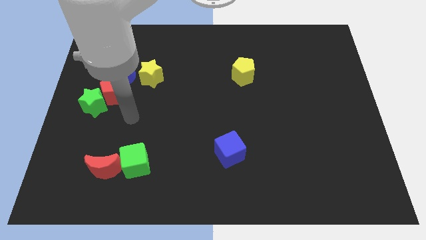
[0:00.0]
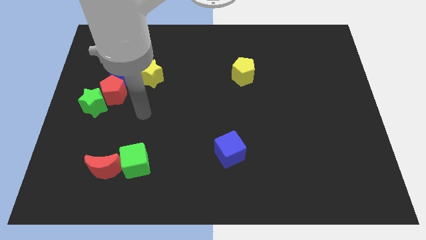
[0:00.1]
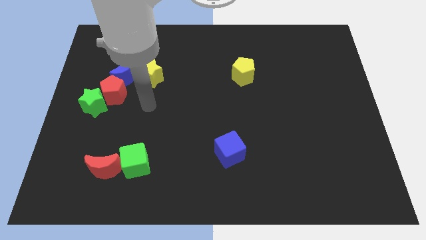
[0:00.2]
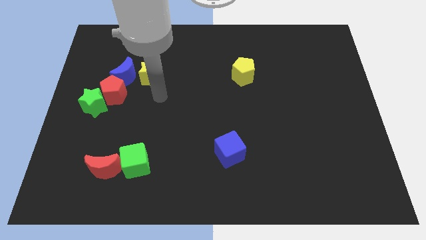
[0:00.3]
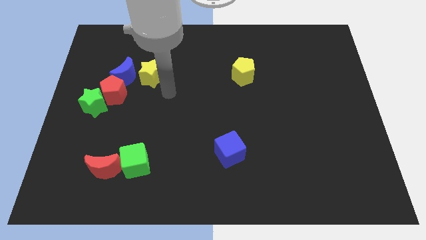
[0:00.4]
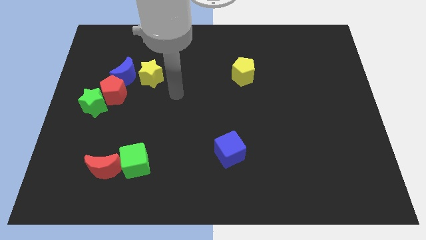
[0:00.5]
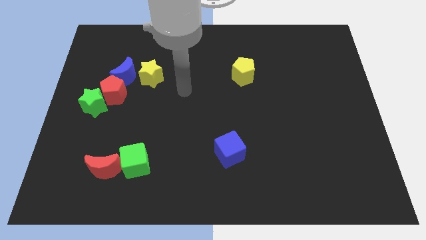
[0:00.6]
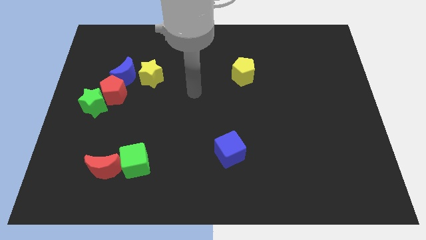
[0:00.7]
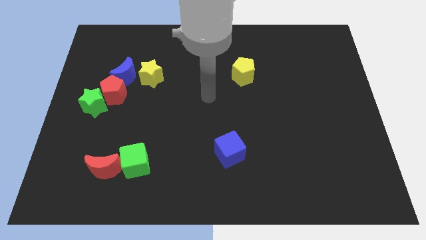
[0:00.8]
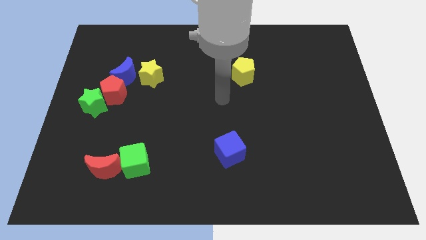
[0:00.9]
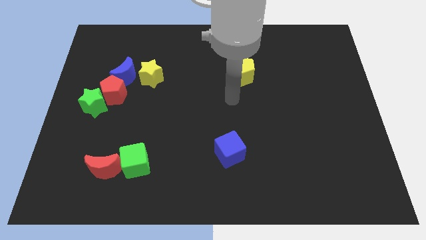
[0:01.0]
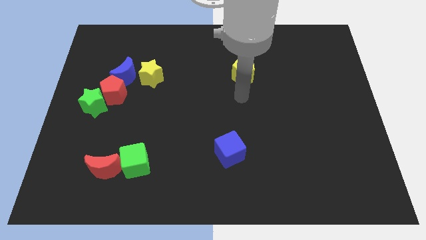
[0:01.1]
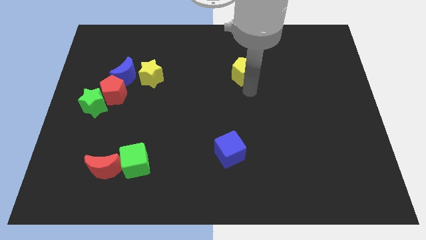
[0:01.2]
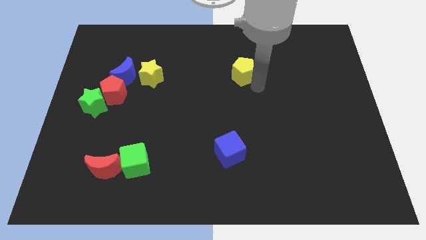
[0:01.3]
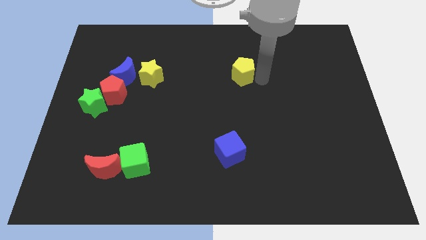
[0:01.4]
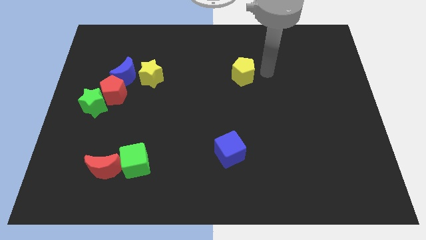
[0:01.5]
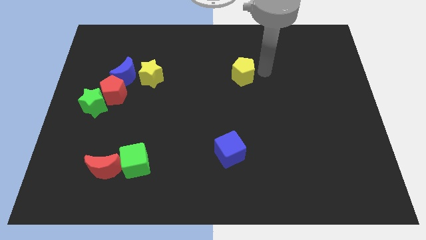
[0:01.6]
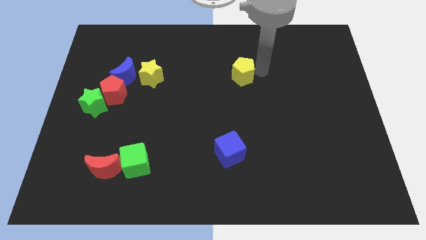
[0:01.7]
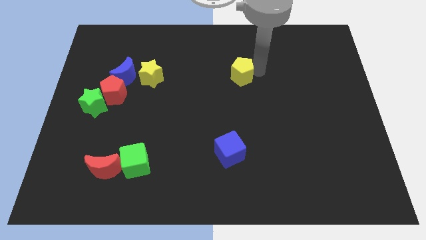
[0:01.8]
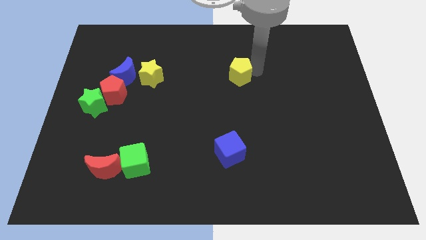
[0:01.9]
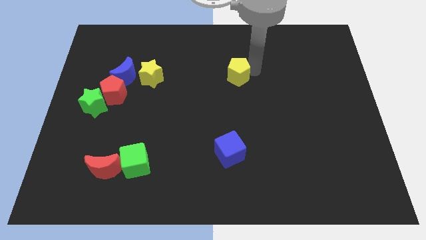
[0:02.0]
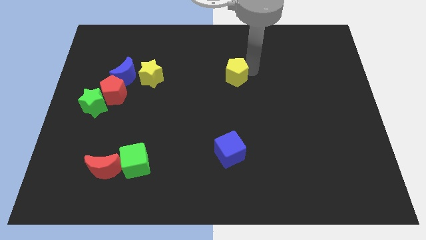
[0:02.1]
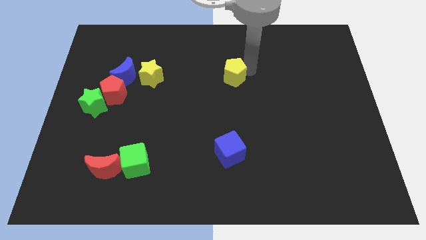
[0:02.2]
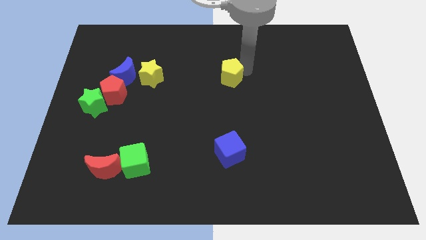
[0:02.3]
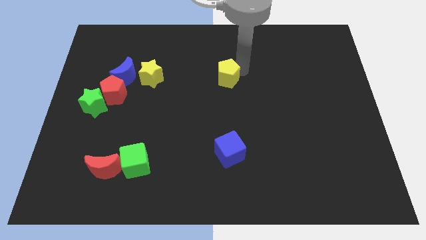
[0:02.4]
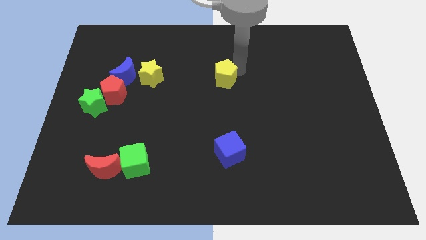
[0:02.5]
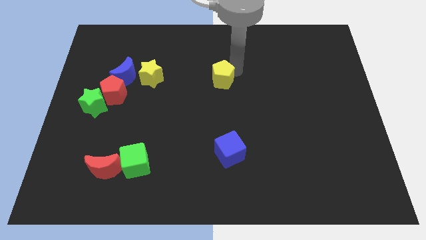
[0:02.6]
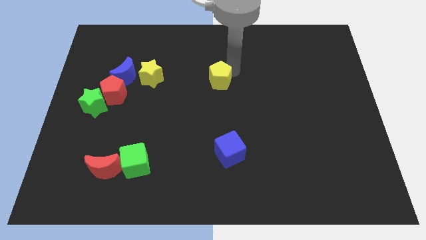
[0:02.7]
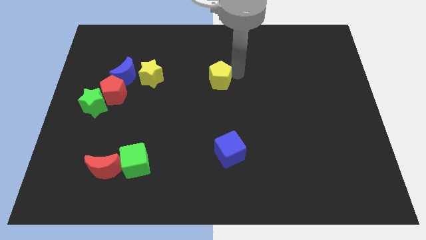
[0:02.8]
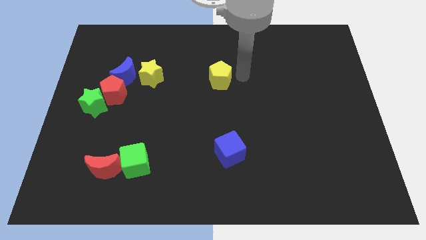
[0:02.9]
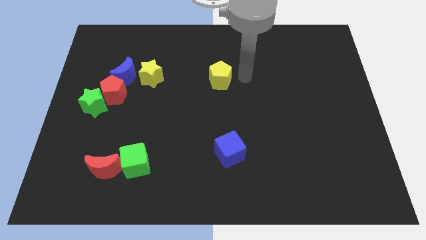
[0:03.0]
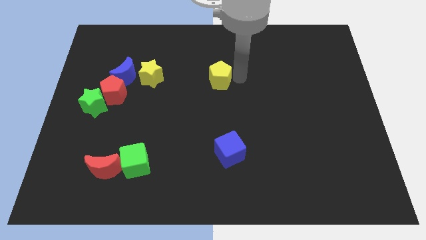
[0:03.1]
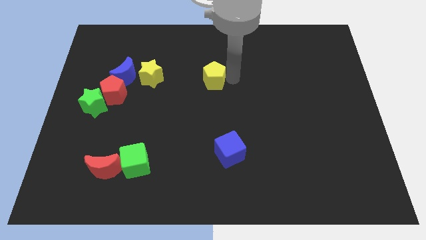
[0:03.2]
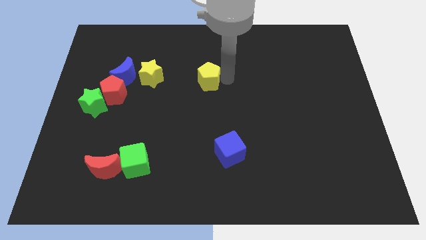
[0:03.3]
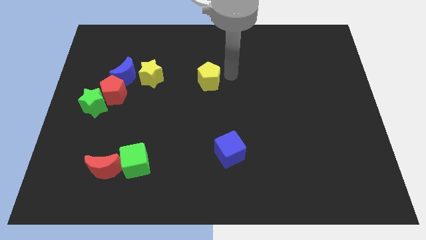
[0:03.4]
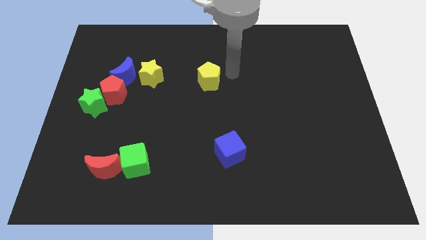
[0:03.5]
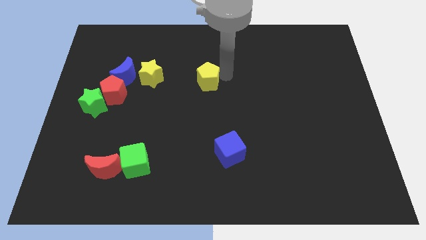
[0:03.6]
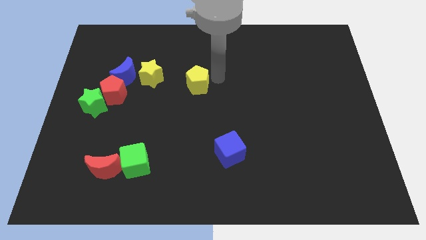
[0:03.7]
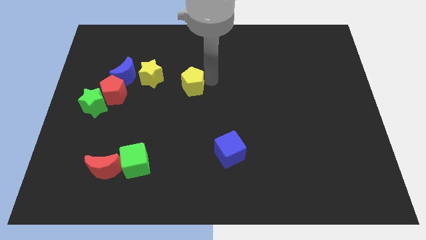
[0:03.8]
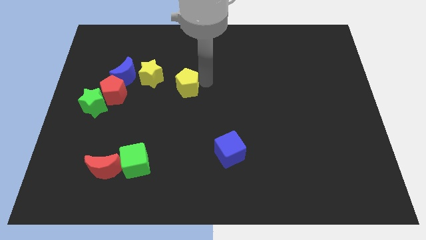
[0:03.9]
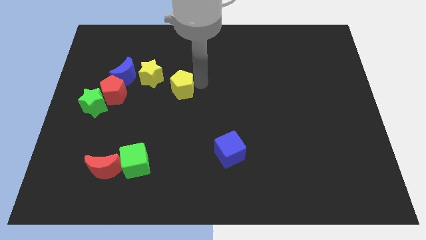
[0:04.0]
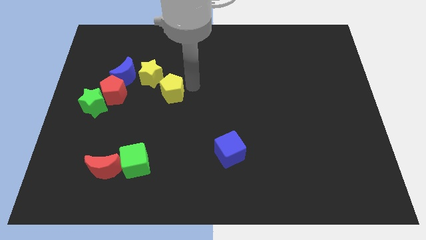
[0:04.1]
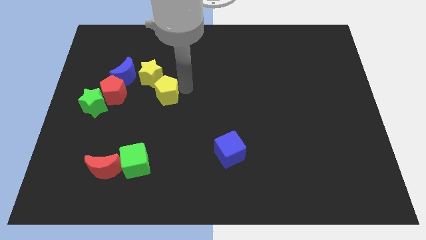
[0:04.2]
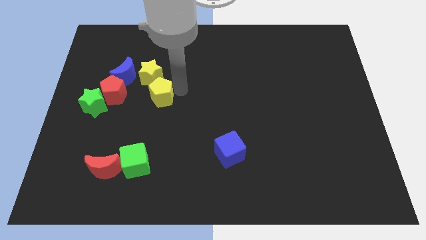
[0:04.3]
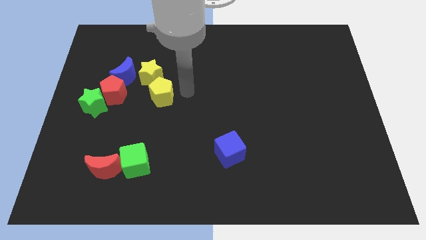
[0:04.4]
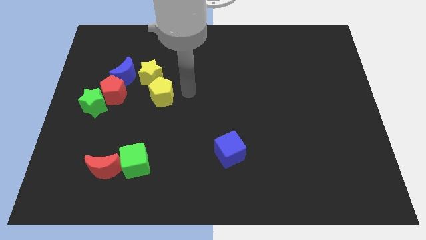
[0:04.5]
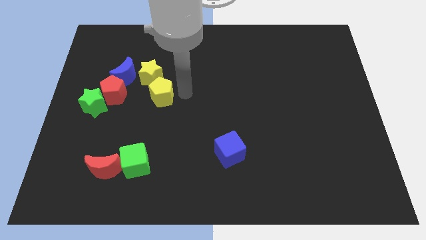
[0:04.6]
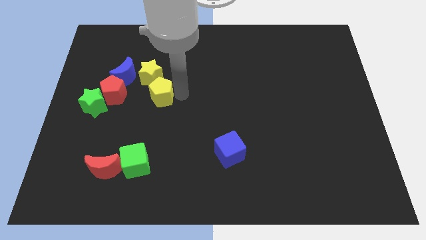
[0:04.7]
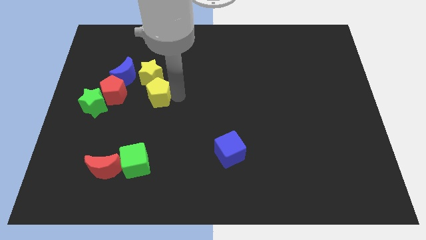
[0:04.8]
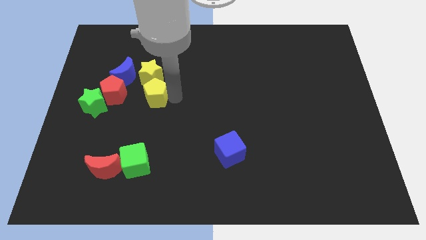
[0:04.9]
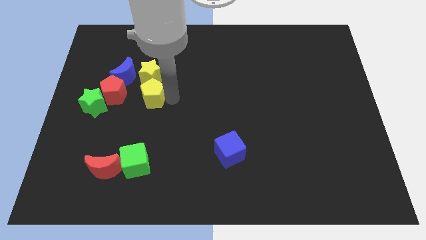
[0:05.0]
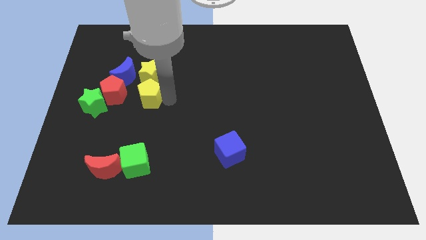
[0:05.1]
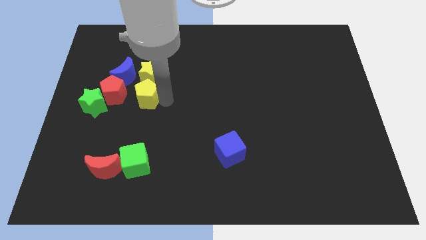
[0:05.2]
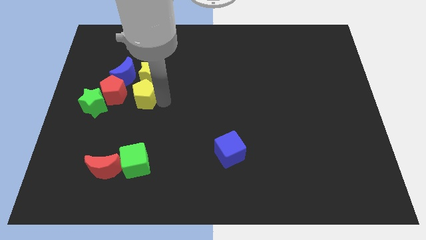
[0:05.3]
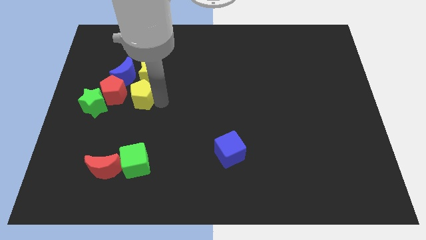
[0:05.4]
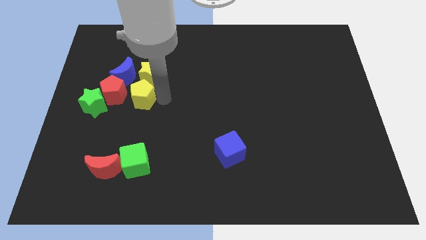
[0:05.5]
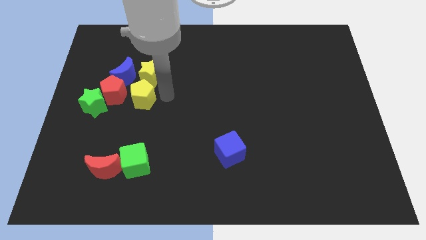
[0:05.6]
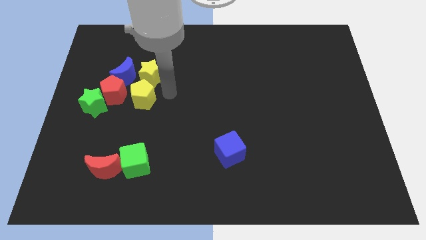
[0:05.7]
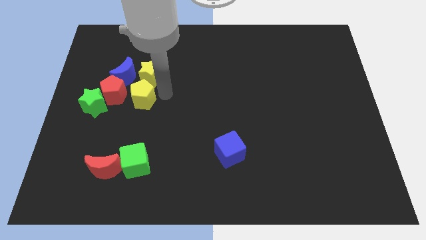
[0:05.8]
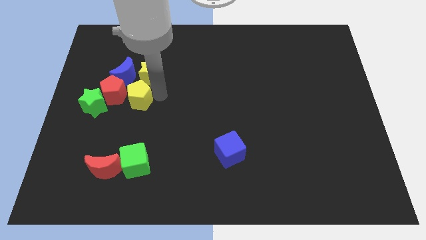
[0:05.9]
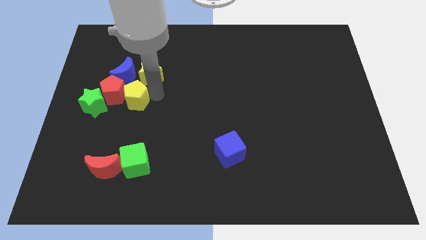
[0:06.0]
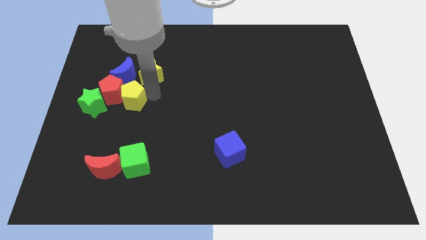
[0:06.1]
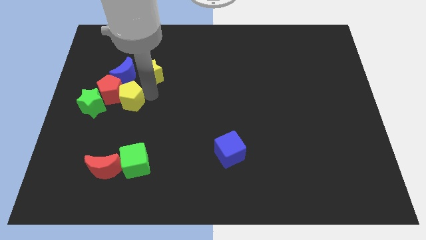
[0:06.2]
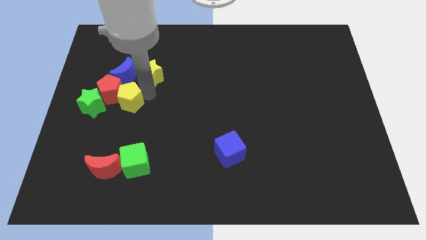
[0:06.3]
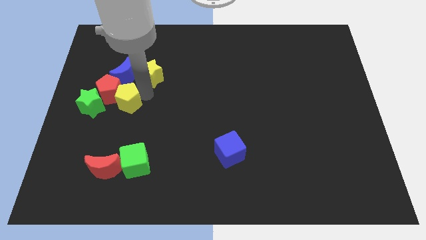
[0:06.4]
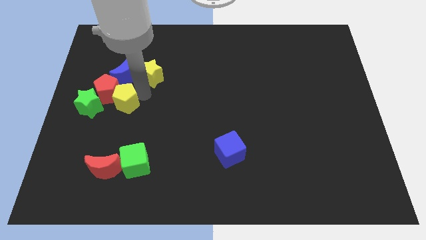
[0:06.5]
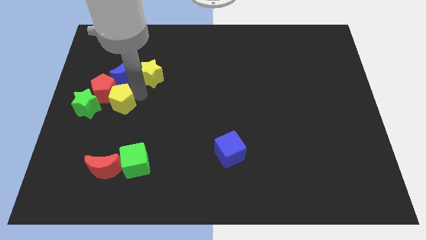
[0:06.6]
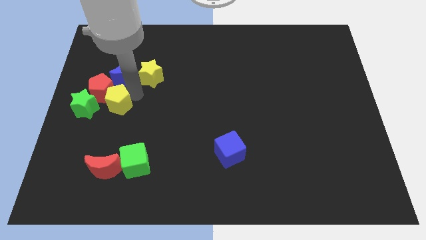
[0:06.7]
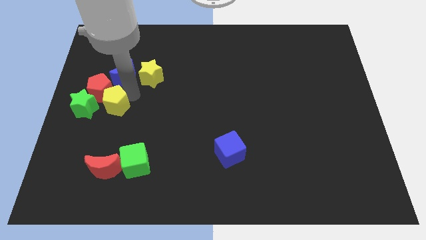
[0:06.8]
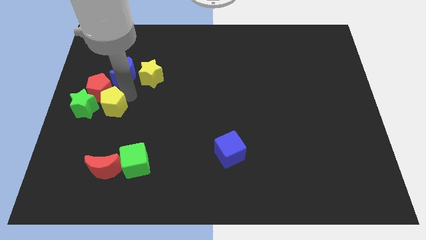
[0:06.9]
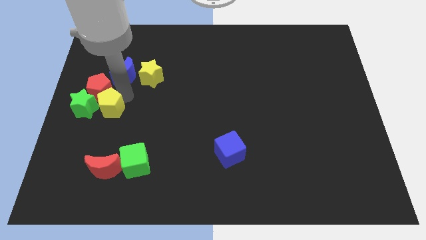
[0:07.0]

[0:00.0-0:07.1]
slide the yellow pentagon to the green star

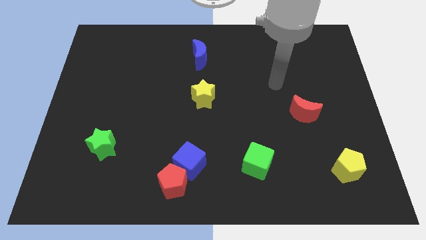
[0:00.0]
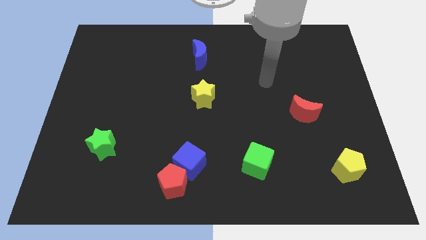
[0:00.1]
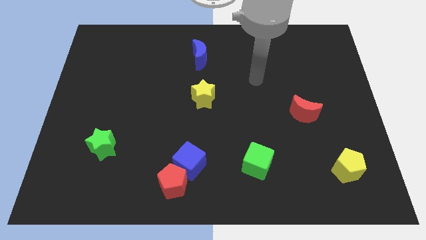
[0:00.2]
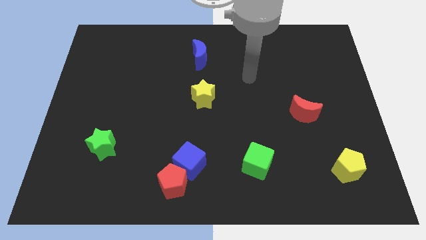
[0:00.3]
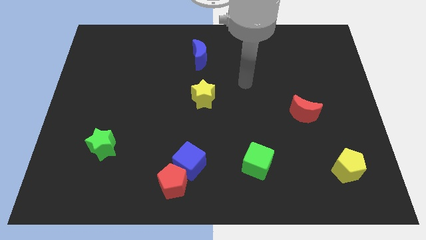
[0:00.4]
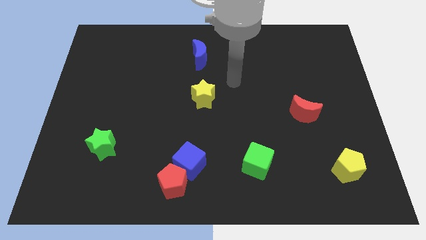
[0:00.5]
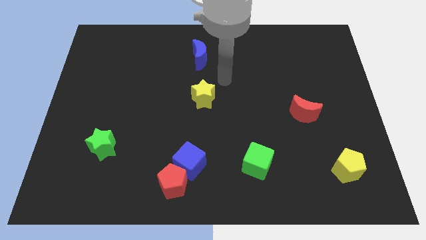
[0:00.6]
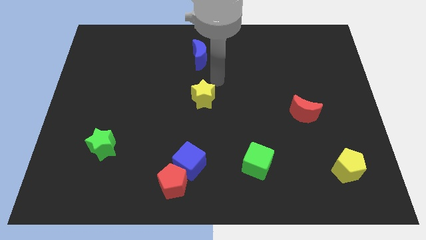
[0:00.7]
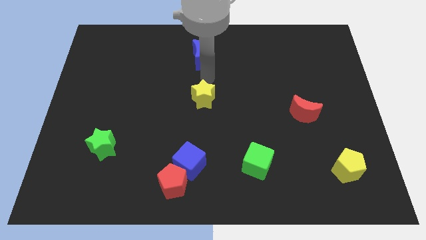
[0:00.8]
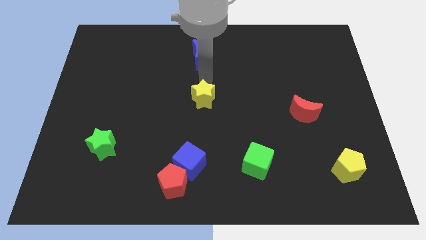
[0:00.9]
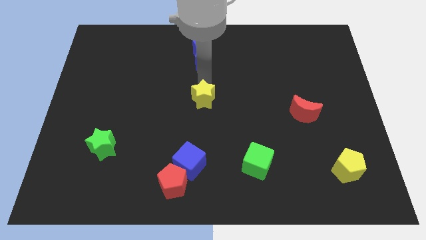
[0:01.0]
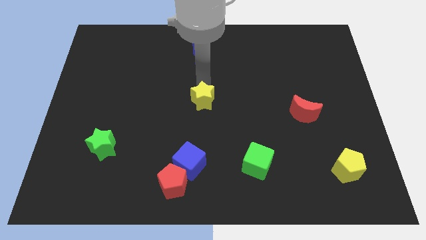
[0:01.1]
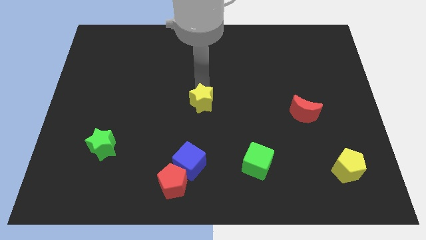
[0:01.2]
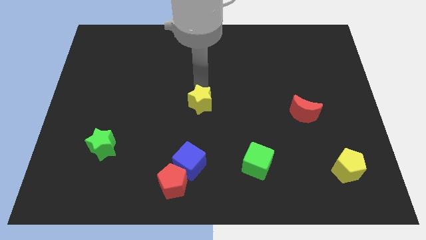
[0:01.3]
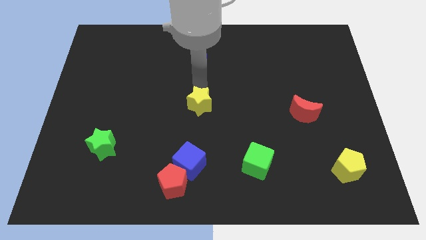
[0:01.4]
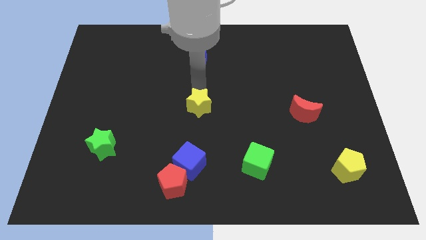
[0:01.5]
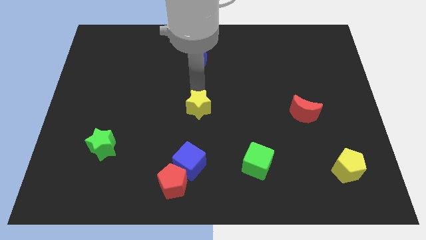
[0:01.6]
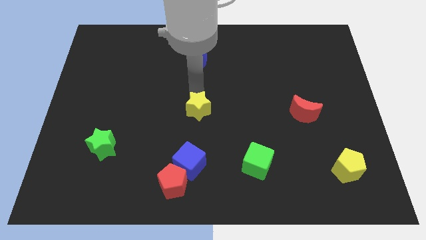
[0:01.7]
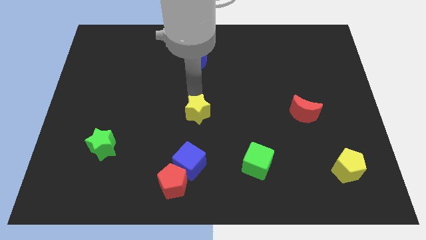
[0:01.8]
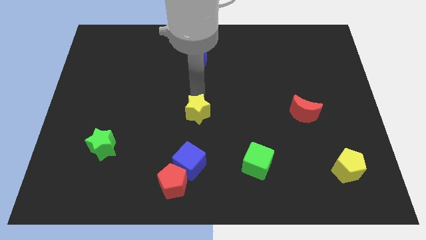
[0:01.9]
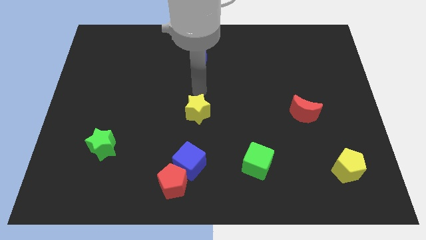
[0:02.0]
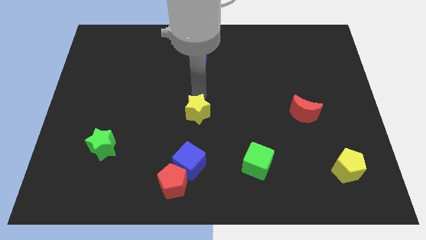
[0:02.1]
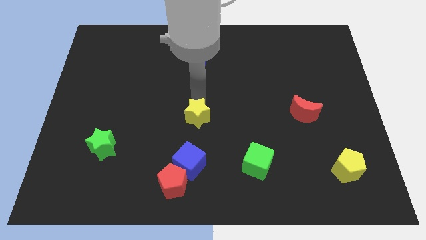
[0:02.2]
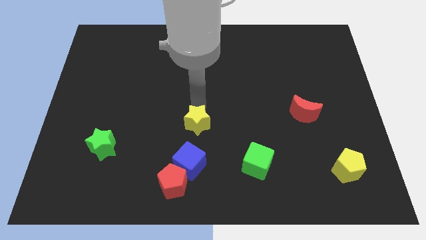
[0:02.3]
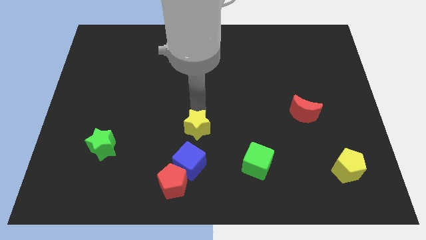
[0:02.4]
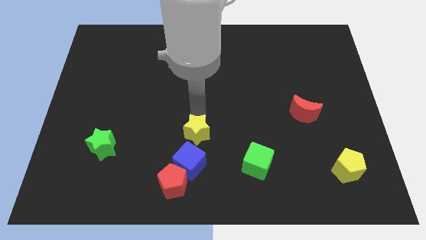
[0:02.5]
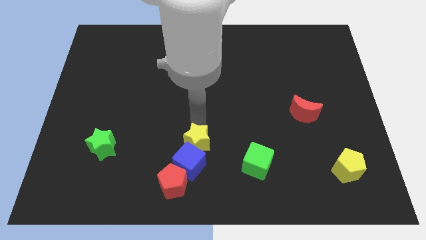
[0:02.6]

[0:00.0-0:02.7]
push the yellow star towards the blue cube
